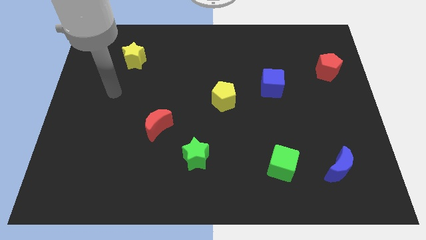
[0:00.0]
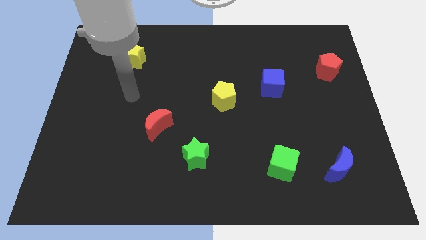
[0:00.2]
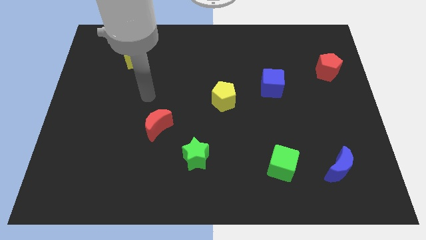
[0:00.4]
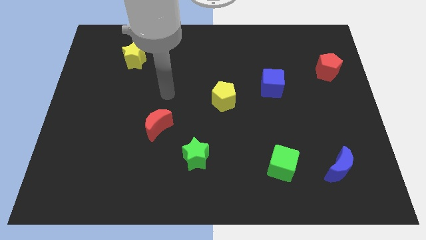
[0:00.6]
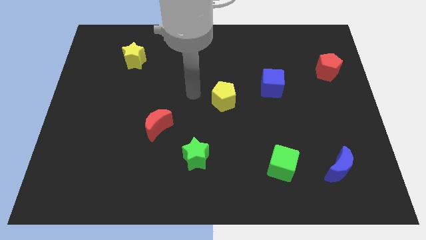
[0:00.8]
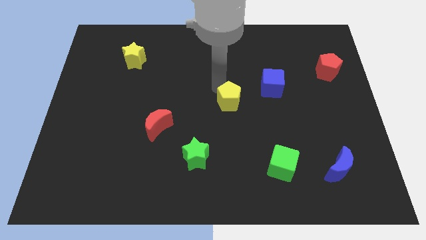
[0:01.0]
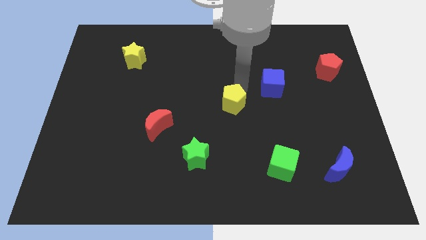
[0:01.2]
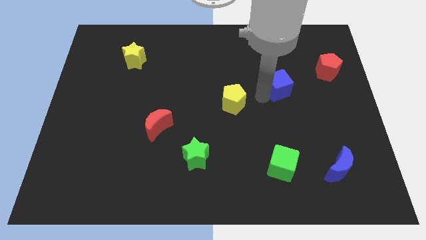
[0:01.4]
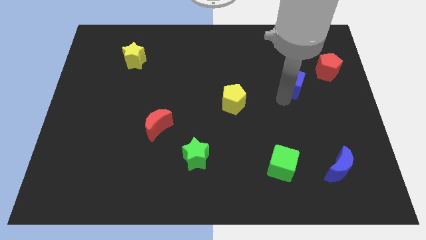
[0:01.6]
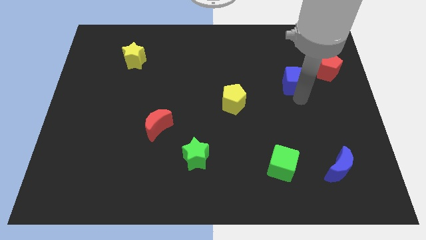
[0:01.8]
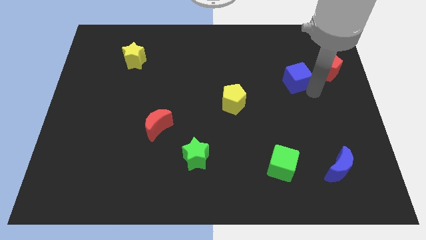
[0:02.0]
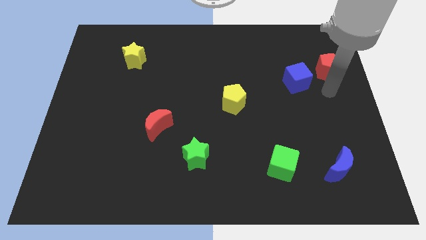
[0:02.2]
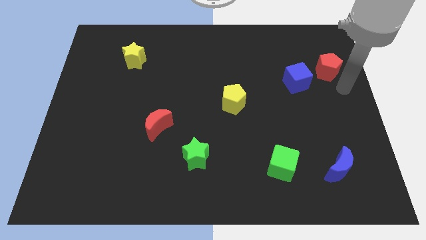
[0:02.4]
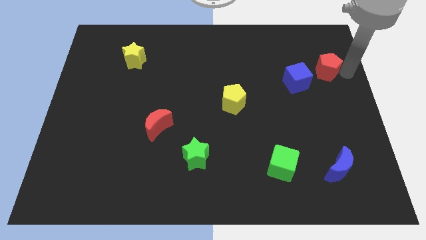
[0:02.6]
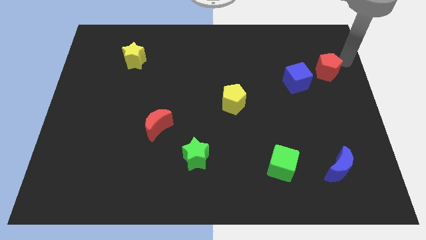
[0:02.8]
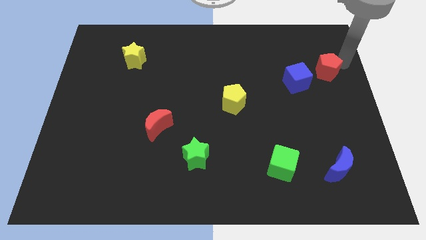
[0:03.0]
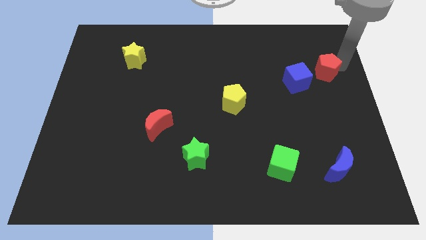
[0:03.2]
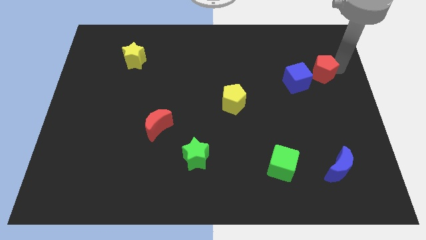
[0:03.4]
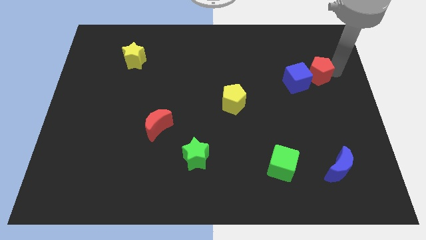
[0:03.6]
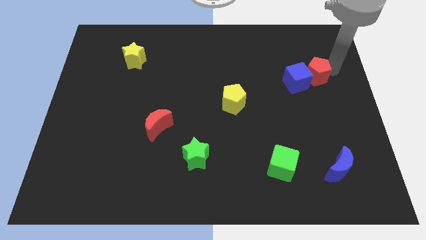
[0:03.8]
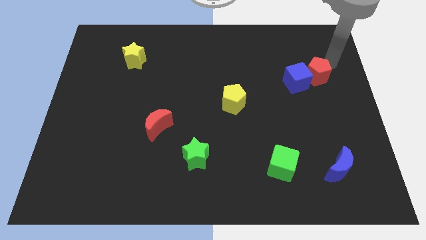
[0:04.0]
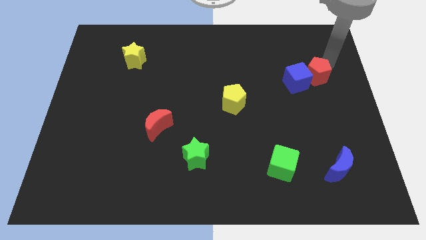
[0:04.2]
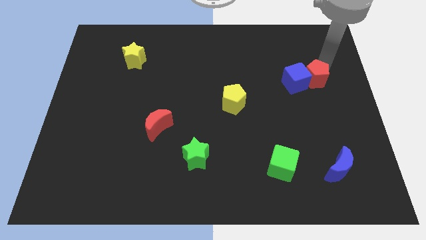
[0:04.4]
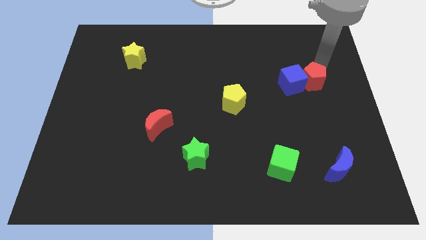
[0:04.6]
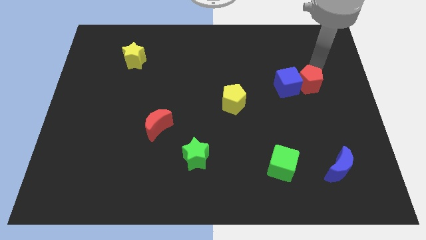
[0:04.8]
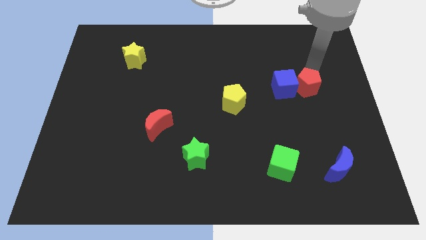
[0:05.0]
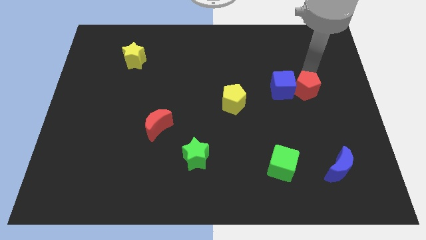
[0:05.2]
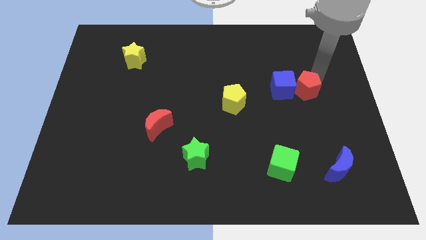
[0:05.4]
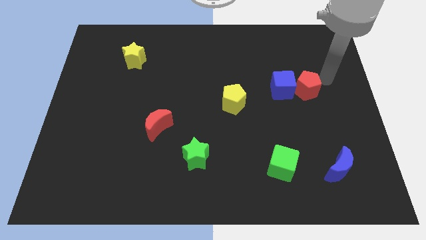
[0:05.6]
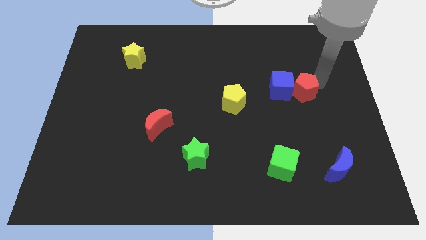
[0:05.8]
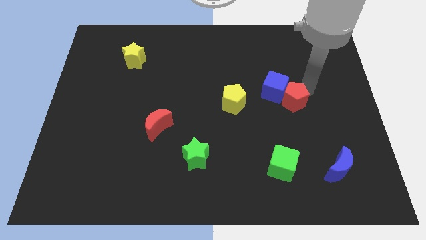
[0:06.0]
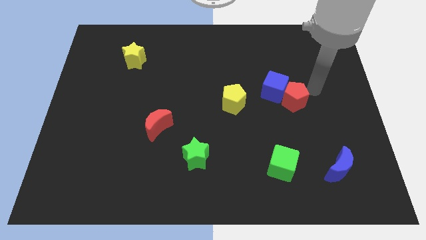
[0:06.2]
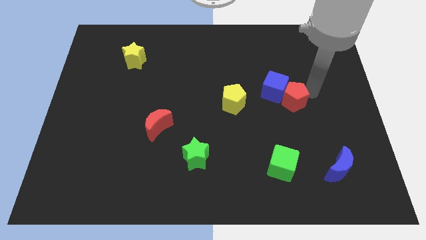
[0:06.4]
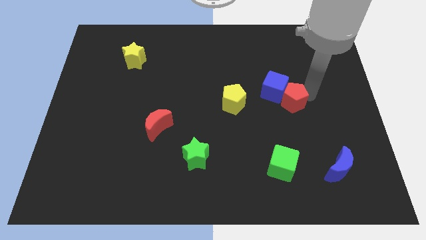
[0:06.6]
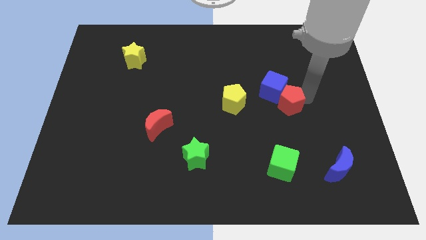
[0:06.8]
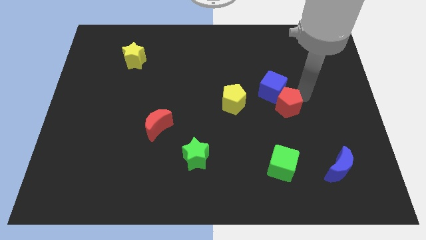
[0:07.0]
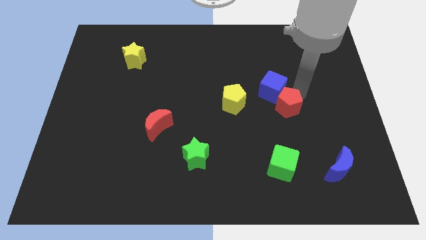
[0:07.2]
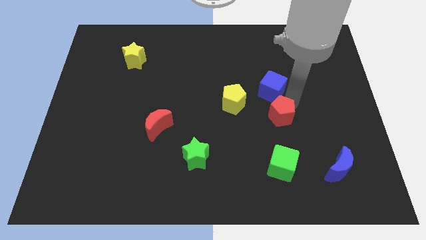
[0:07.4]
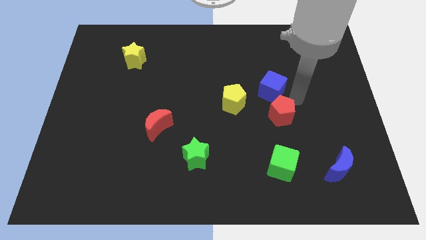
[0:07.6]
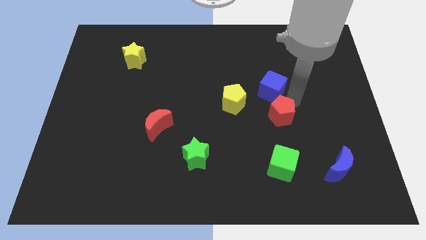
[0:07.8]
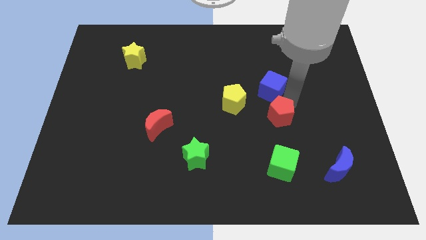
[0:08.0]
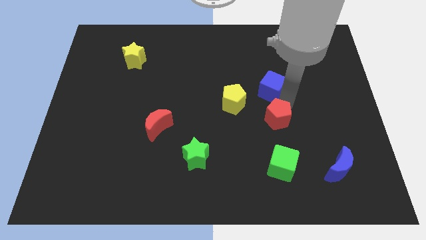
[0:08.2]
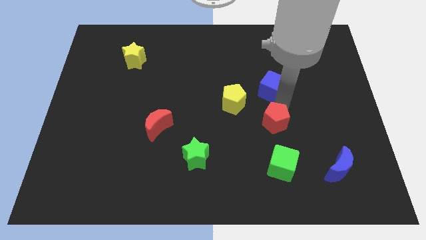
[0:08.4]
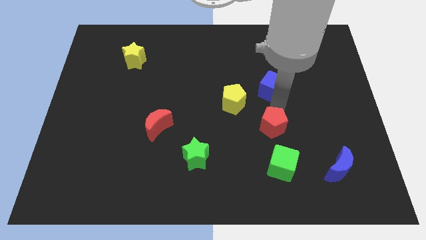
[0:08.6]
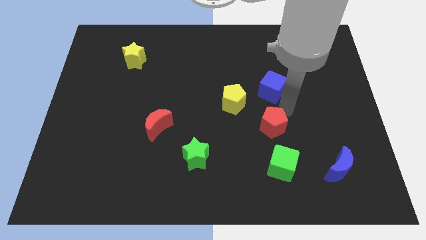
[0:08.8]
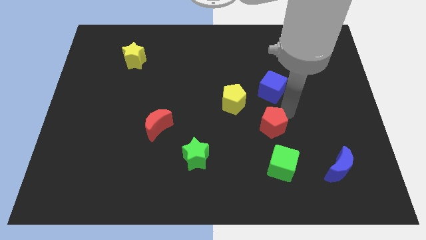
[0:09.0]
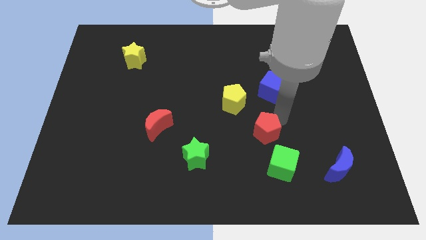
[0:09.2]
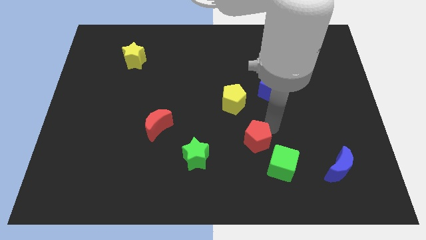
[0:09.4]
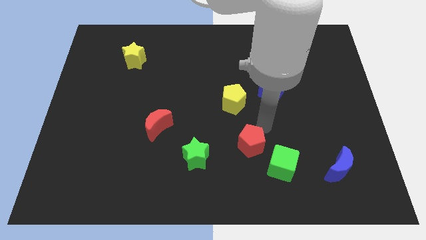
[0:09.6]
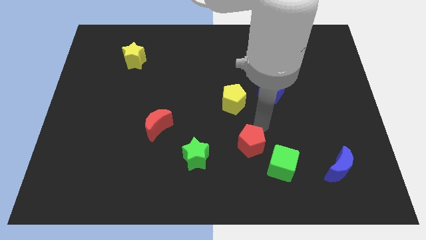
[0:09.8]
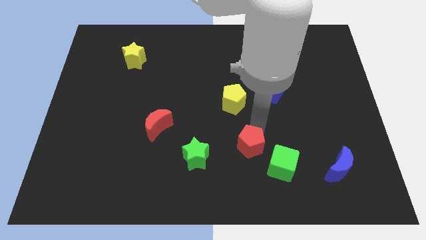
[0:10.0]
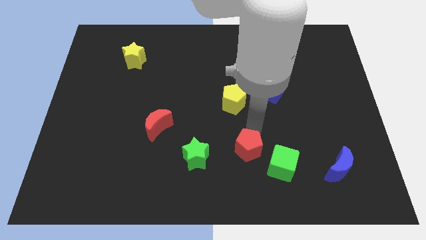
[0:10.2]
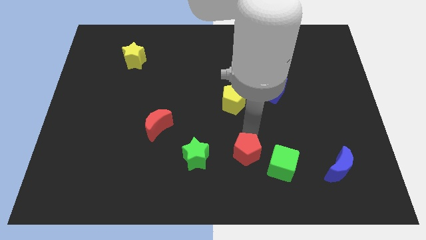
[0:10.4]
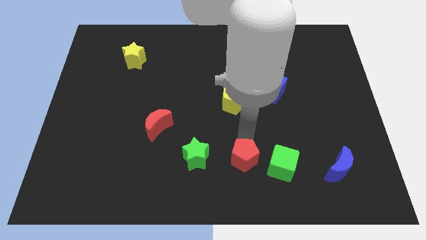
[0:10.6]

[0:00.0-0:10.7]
push the red pentagon to the bottom side
